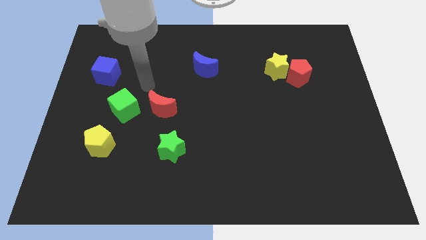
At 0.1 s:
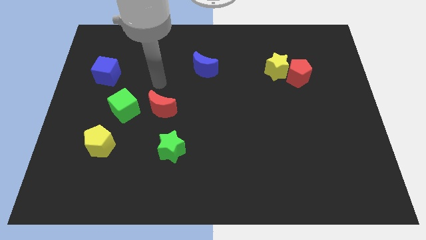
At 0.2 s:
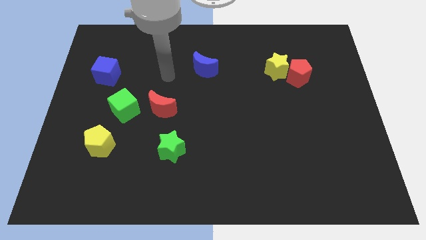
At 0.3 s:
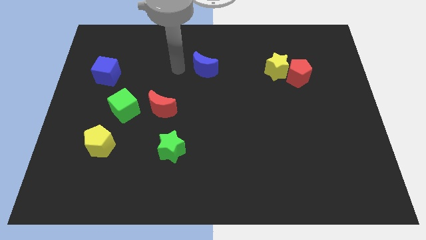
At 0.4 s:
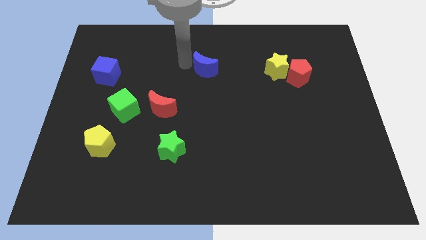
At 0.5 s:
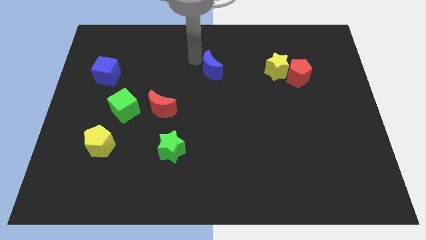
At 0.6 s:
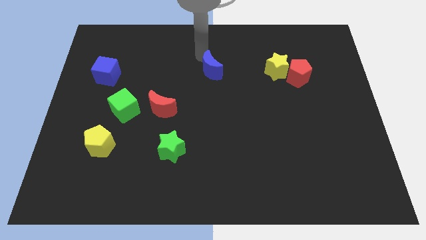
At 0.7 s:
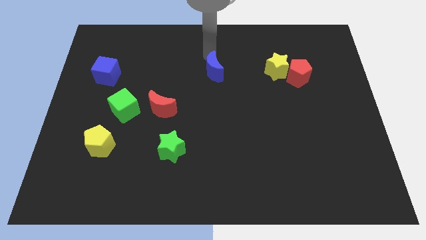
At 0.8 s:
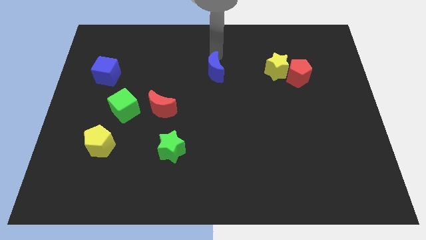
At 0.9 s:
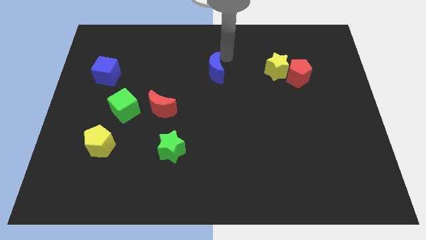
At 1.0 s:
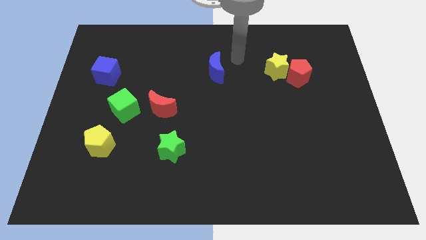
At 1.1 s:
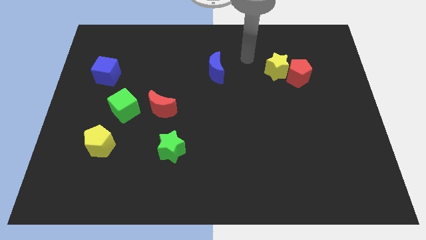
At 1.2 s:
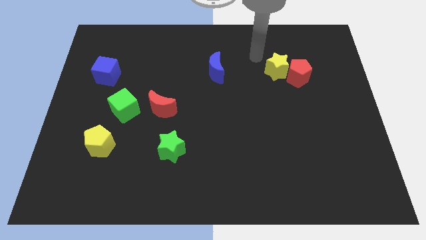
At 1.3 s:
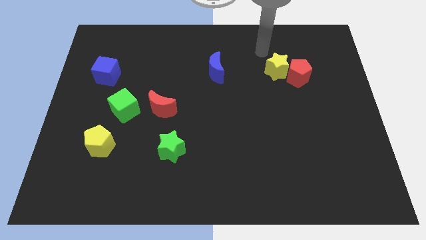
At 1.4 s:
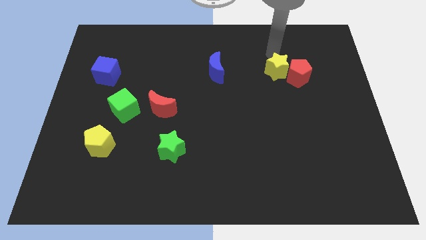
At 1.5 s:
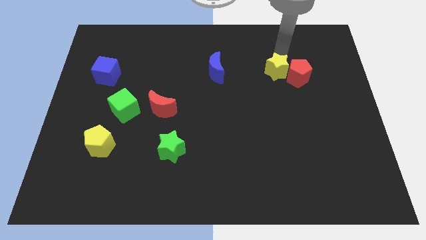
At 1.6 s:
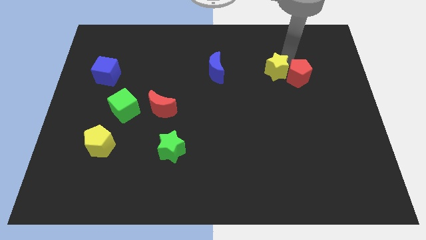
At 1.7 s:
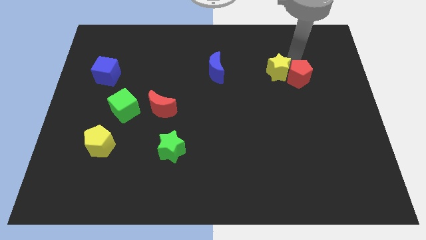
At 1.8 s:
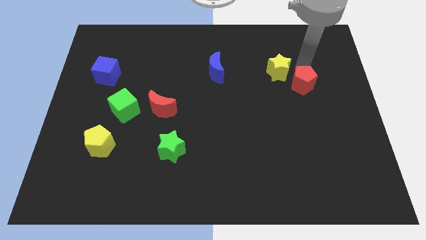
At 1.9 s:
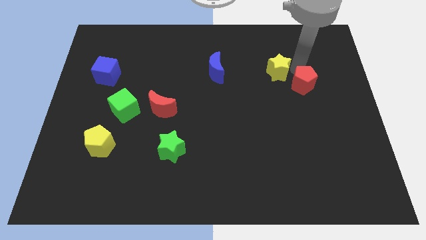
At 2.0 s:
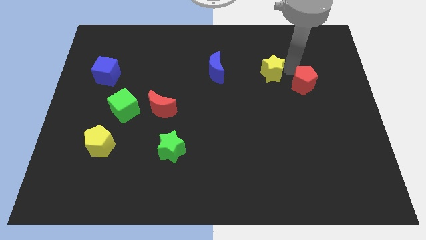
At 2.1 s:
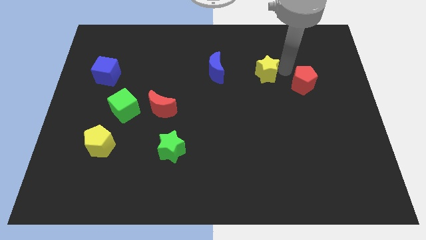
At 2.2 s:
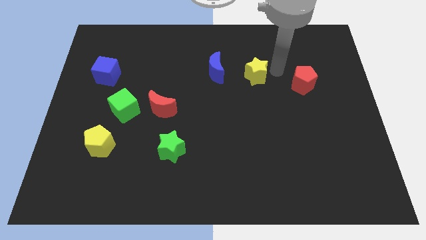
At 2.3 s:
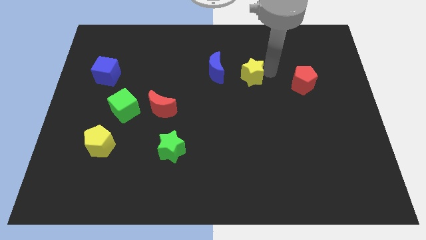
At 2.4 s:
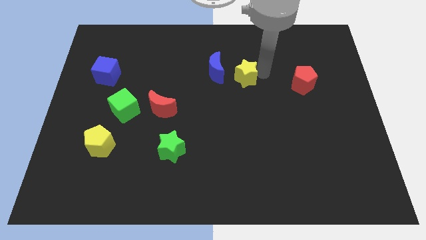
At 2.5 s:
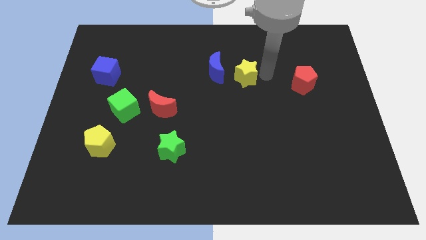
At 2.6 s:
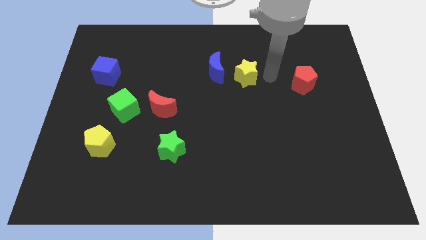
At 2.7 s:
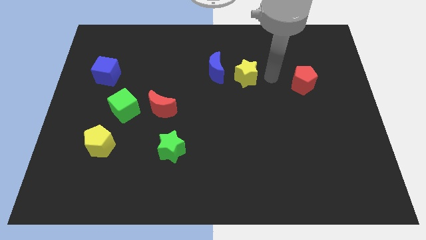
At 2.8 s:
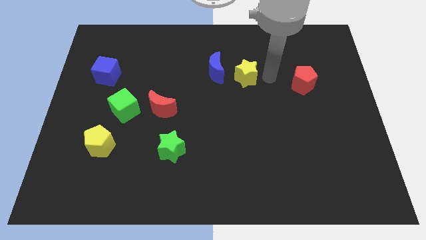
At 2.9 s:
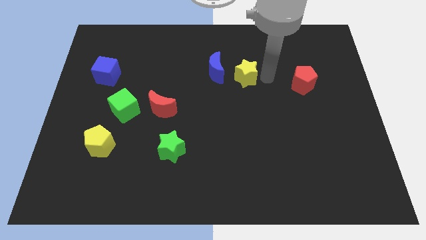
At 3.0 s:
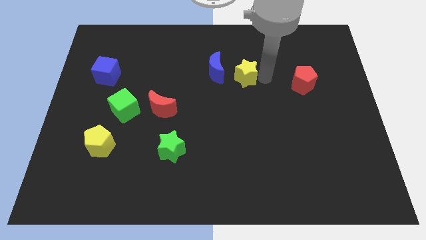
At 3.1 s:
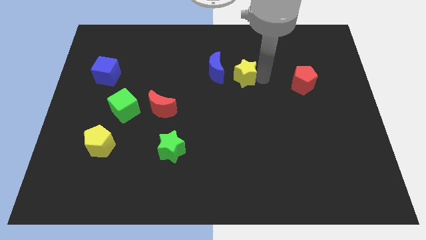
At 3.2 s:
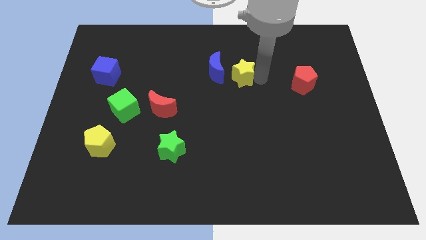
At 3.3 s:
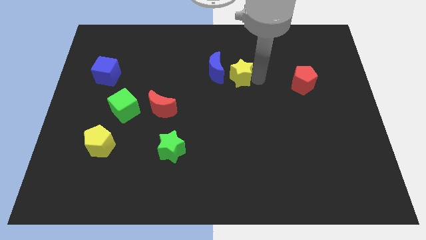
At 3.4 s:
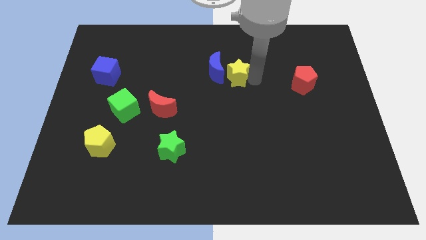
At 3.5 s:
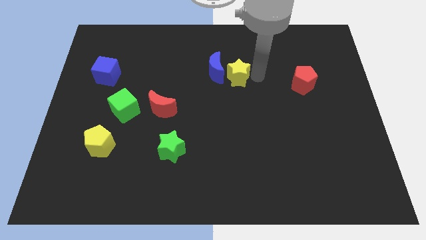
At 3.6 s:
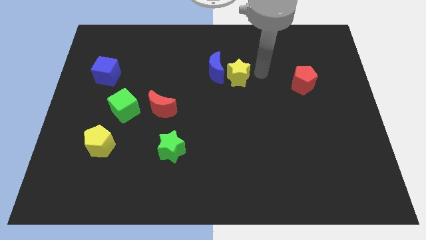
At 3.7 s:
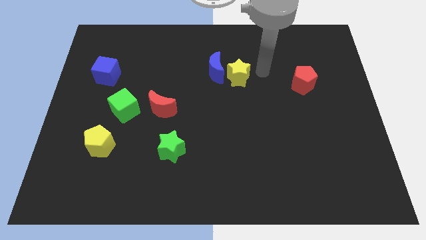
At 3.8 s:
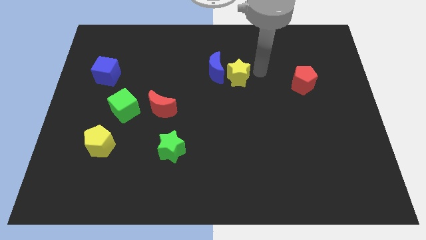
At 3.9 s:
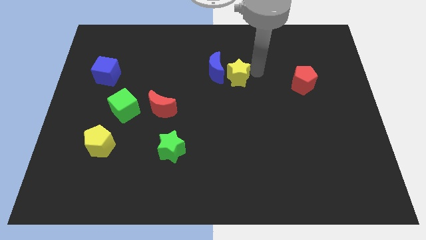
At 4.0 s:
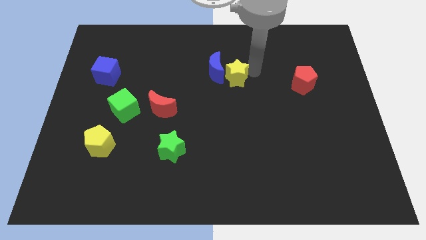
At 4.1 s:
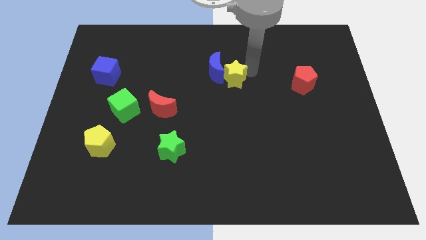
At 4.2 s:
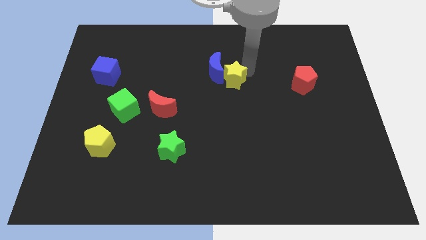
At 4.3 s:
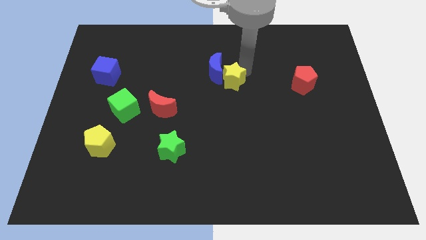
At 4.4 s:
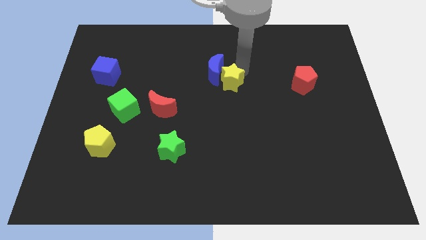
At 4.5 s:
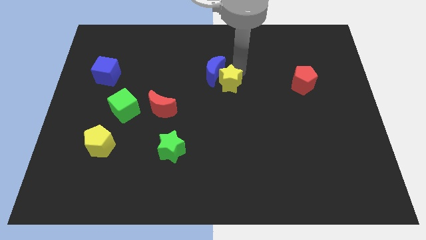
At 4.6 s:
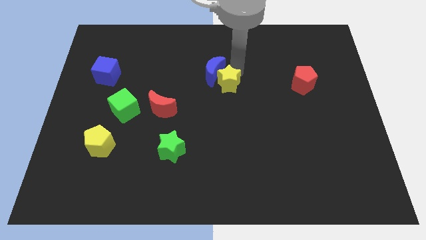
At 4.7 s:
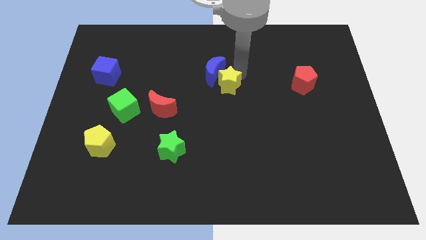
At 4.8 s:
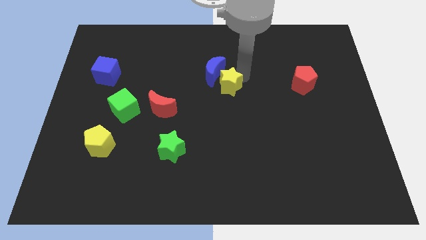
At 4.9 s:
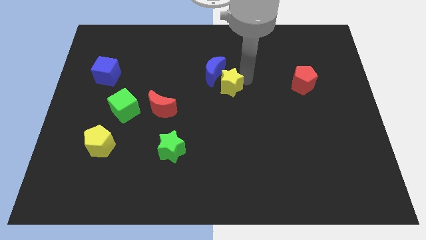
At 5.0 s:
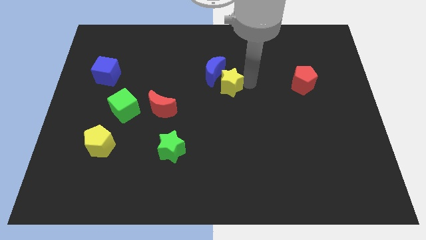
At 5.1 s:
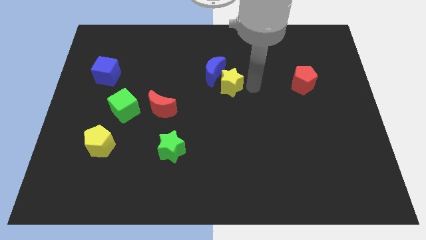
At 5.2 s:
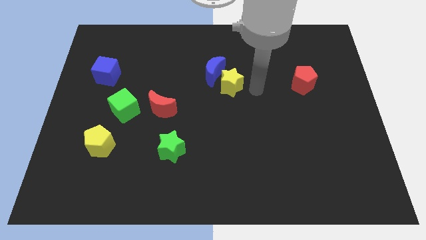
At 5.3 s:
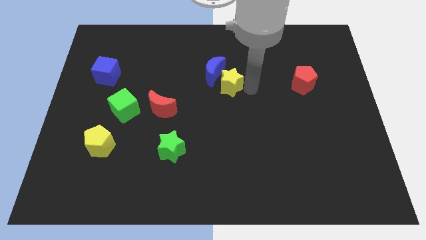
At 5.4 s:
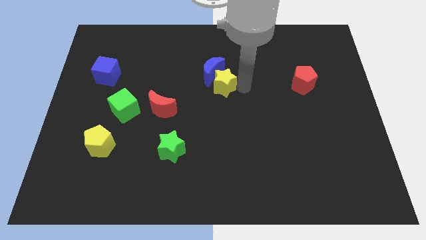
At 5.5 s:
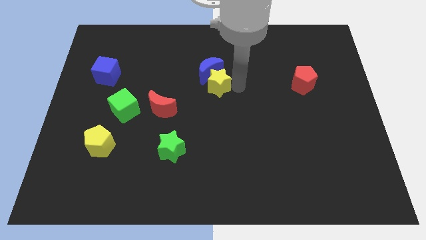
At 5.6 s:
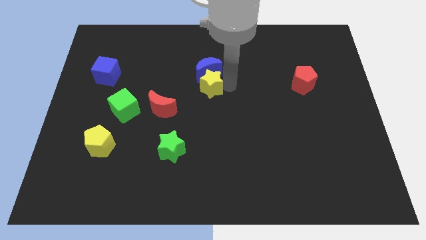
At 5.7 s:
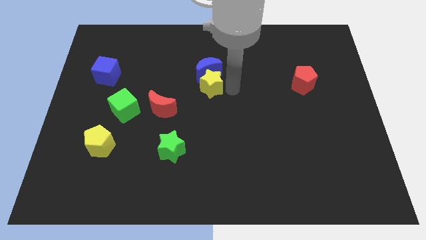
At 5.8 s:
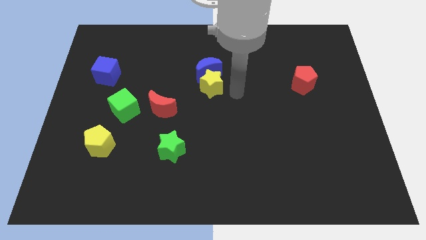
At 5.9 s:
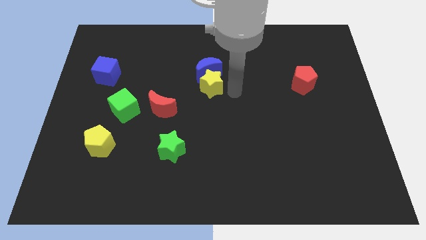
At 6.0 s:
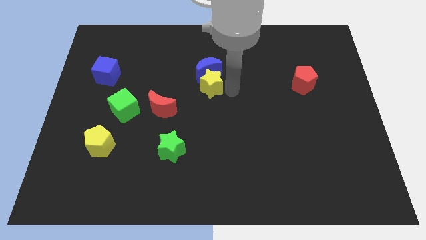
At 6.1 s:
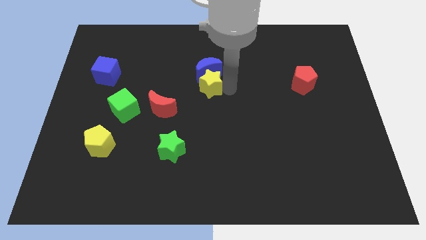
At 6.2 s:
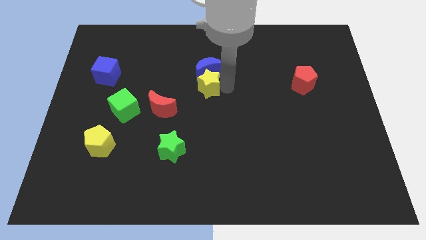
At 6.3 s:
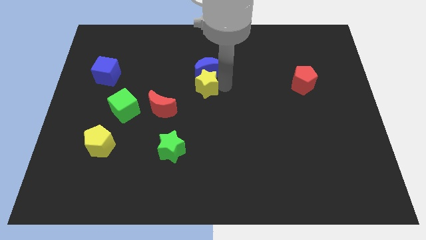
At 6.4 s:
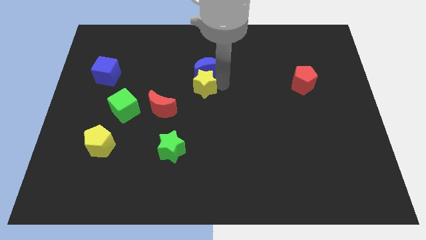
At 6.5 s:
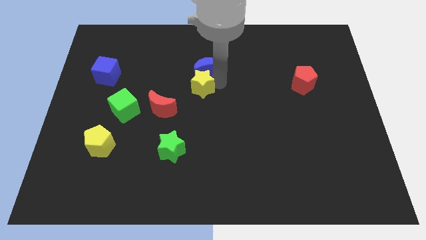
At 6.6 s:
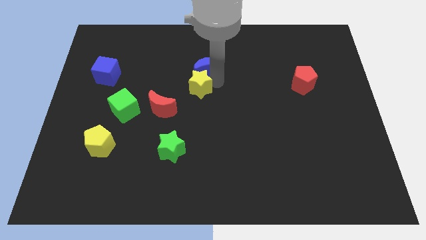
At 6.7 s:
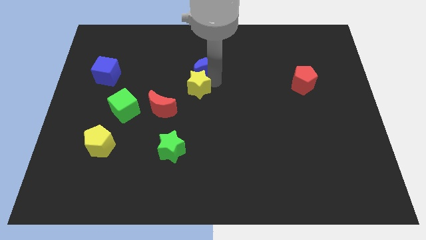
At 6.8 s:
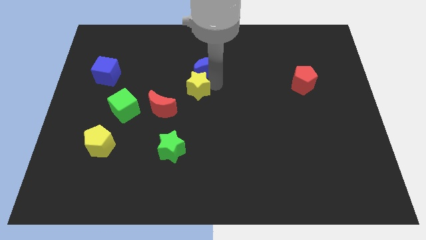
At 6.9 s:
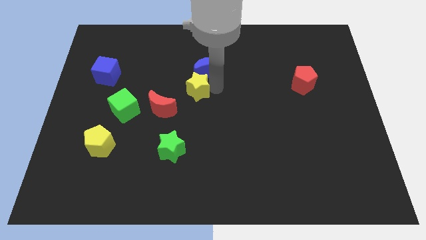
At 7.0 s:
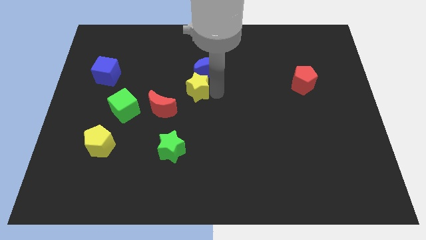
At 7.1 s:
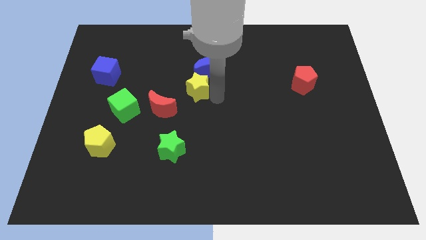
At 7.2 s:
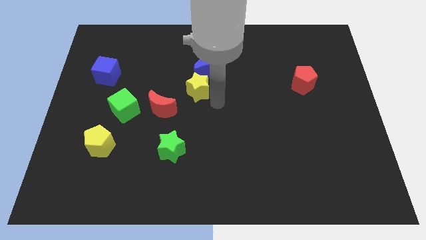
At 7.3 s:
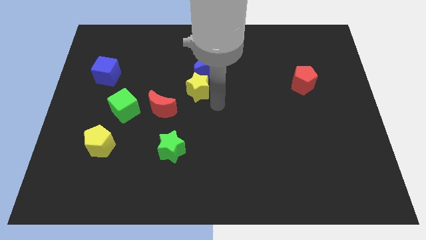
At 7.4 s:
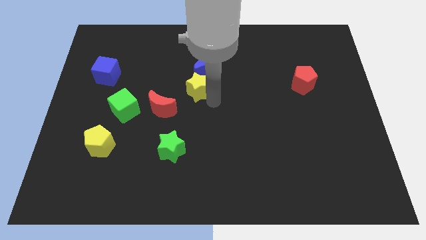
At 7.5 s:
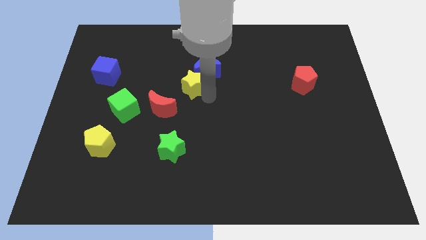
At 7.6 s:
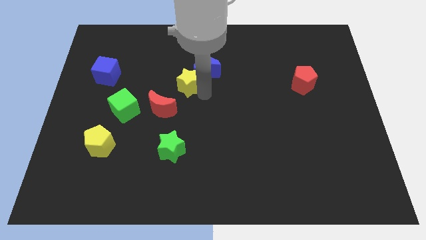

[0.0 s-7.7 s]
move the yellow star left

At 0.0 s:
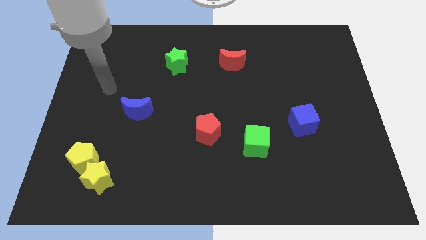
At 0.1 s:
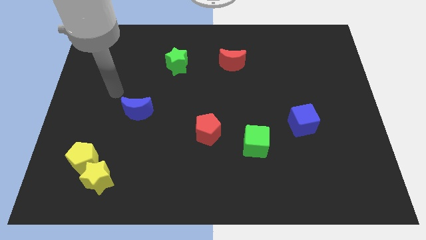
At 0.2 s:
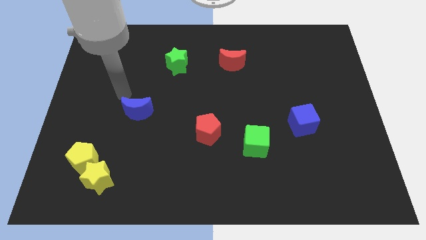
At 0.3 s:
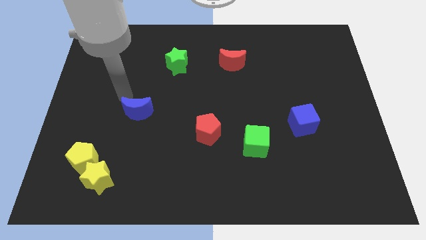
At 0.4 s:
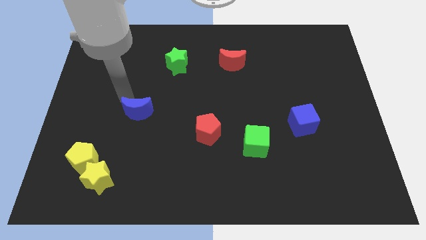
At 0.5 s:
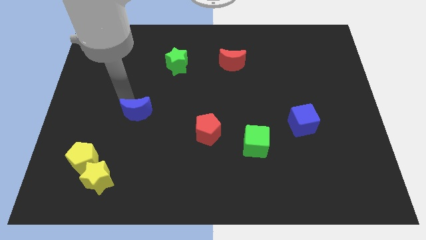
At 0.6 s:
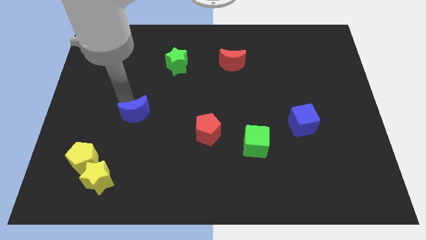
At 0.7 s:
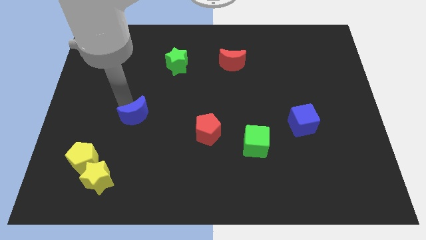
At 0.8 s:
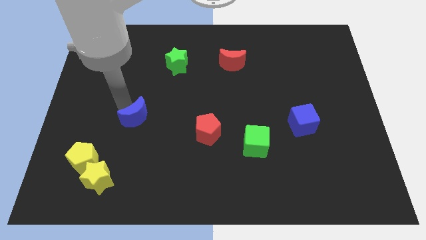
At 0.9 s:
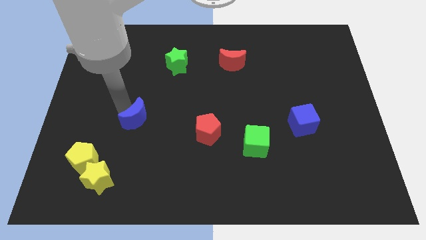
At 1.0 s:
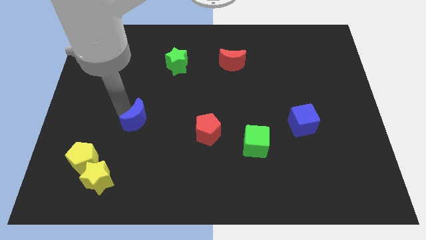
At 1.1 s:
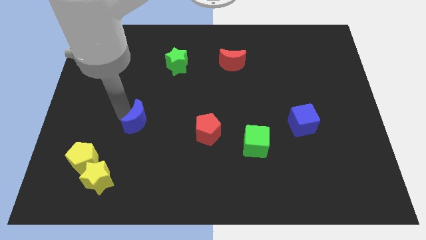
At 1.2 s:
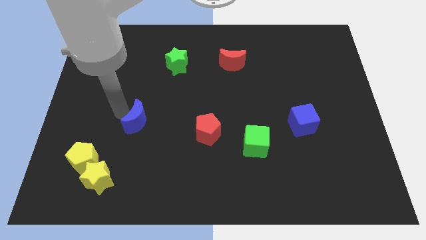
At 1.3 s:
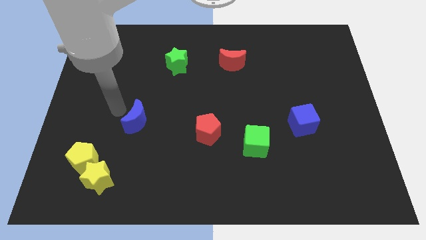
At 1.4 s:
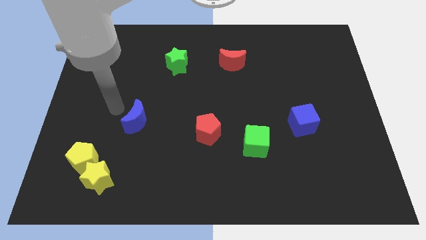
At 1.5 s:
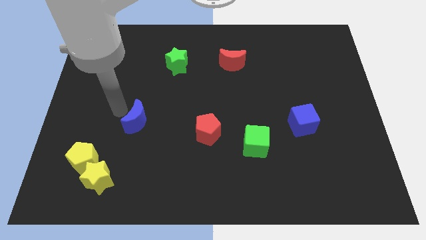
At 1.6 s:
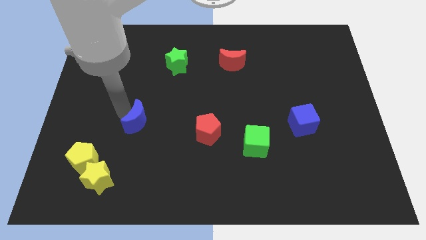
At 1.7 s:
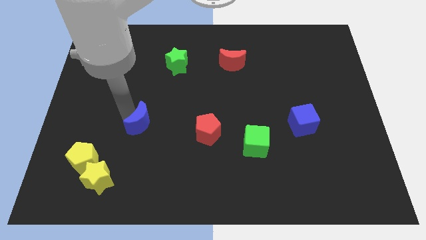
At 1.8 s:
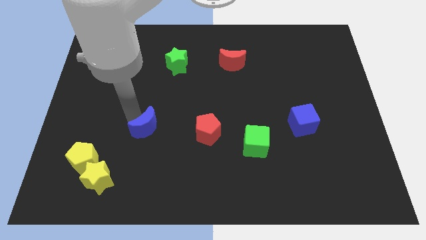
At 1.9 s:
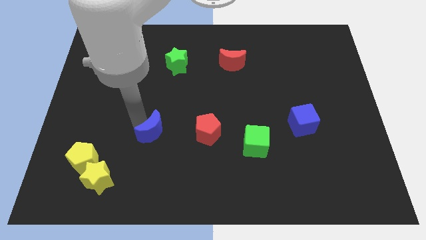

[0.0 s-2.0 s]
move the blue moon down and to the right diagonally a little
